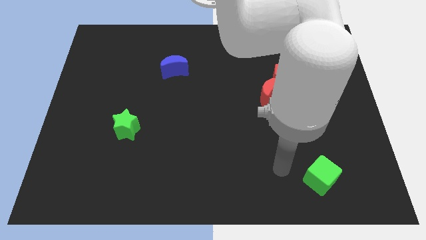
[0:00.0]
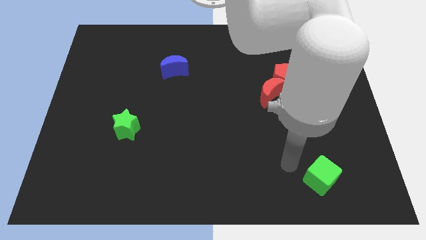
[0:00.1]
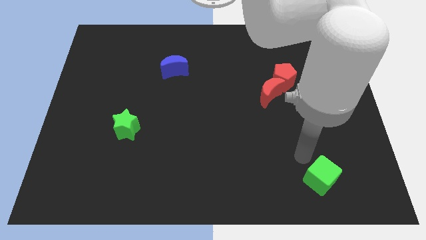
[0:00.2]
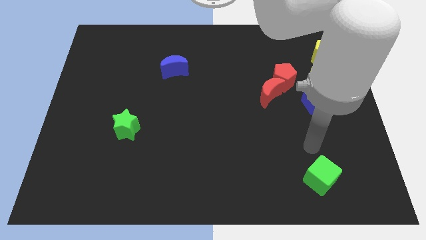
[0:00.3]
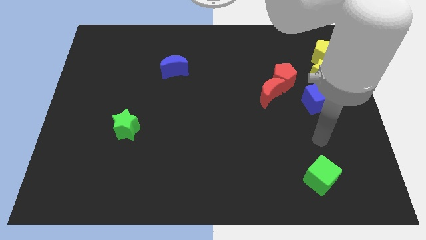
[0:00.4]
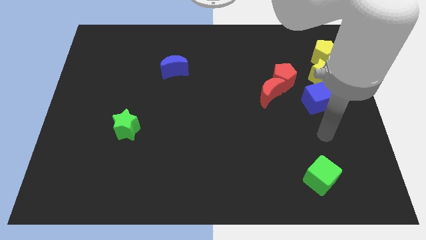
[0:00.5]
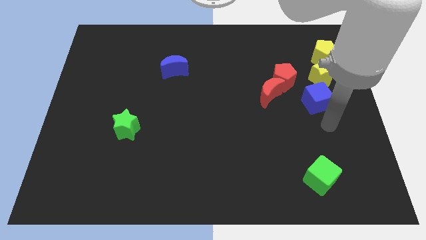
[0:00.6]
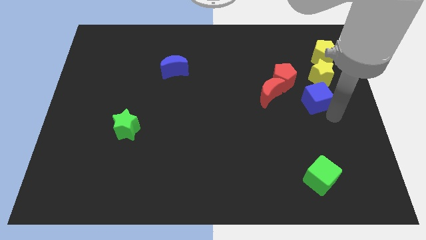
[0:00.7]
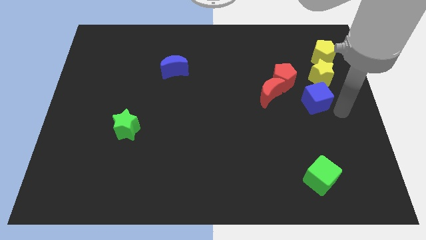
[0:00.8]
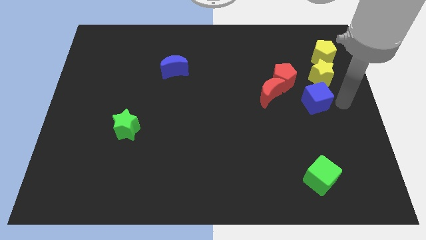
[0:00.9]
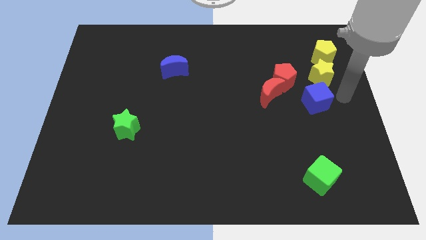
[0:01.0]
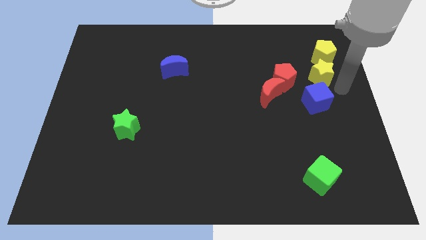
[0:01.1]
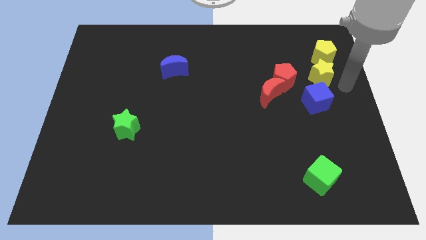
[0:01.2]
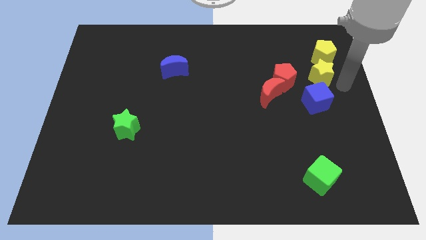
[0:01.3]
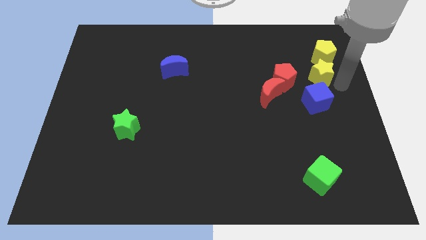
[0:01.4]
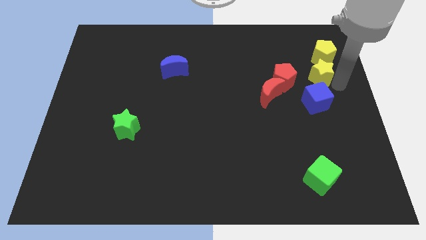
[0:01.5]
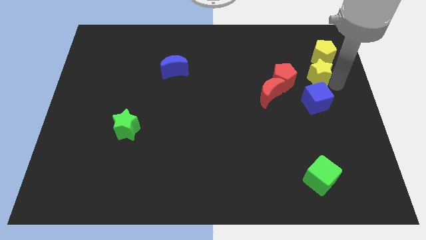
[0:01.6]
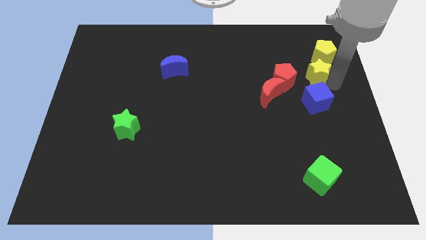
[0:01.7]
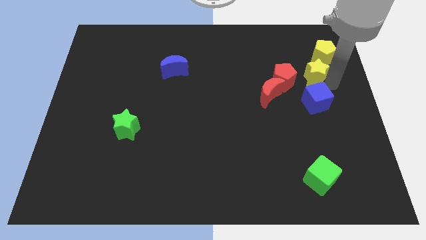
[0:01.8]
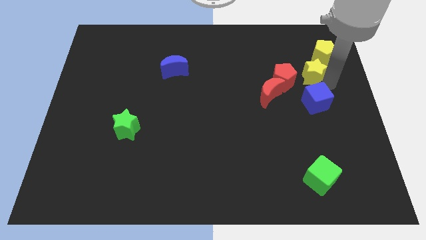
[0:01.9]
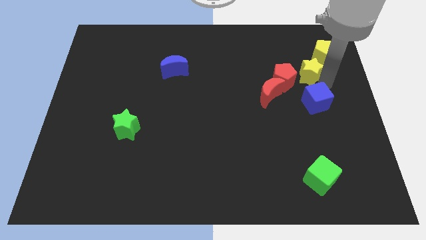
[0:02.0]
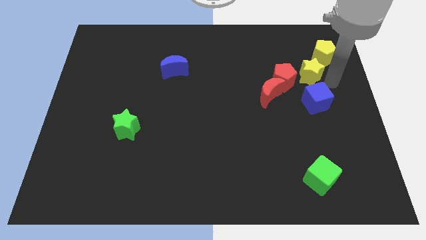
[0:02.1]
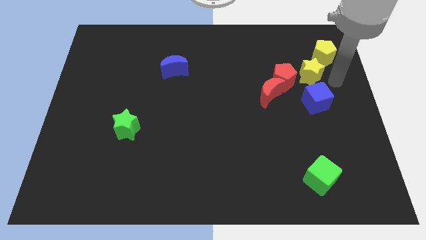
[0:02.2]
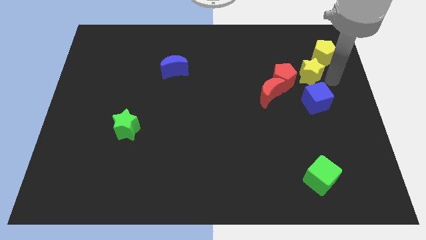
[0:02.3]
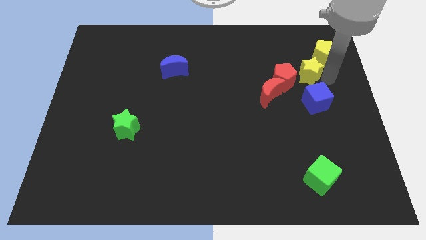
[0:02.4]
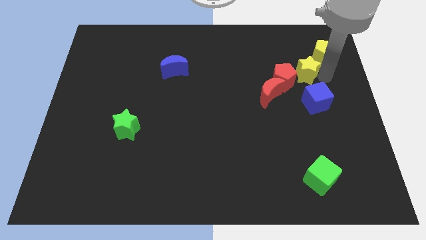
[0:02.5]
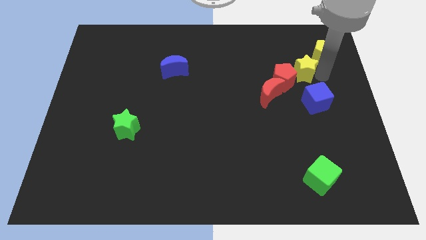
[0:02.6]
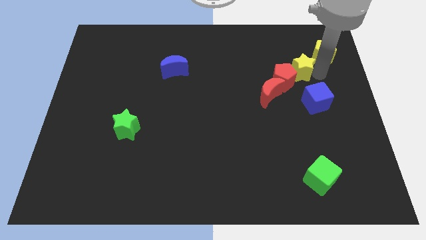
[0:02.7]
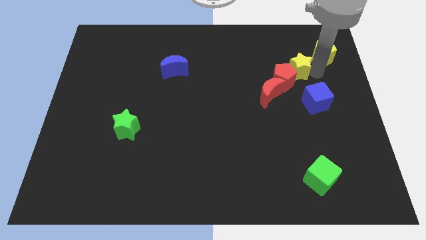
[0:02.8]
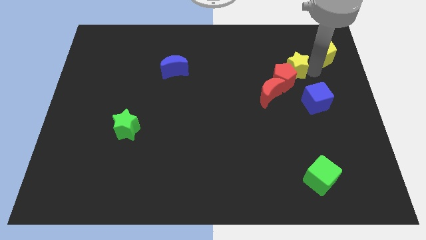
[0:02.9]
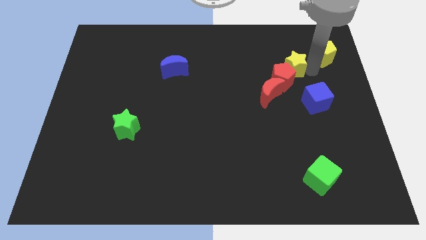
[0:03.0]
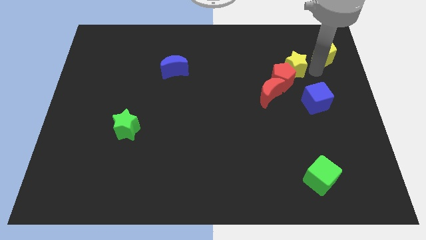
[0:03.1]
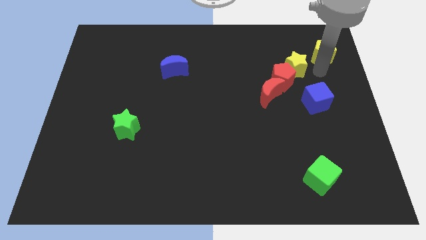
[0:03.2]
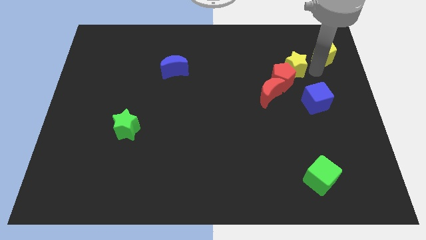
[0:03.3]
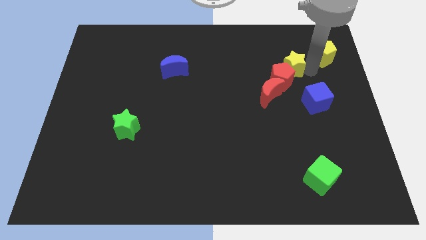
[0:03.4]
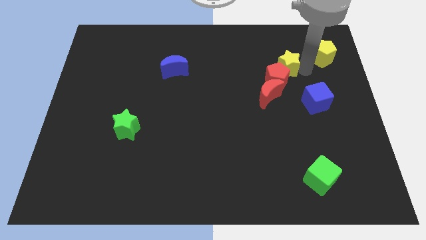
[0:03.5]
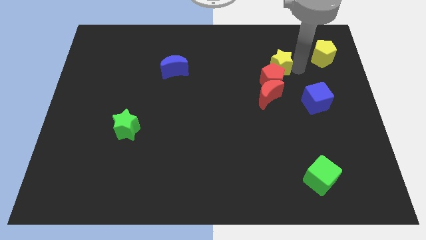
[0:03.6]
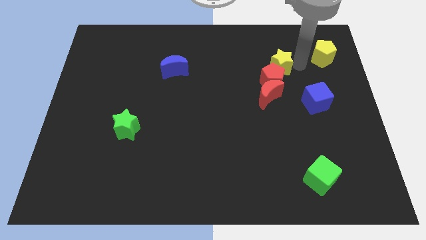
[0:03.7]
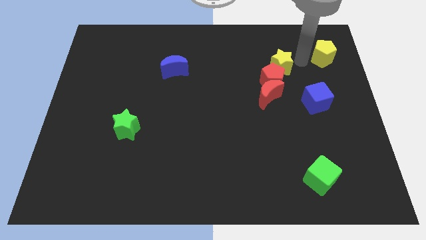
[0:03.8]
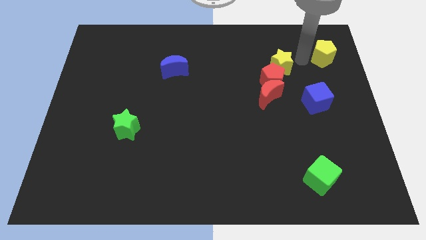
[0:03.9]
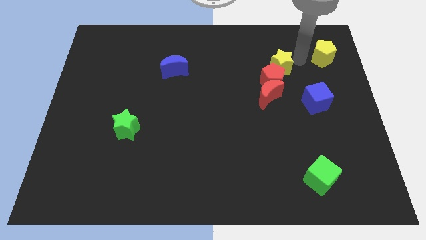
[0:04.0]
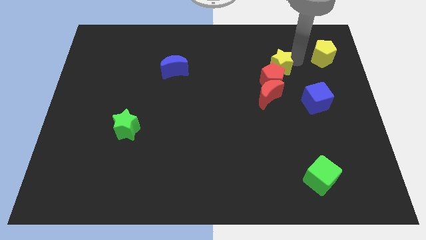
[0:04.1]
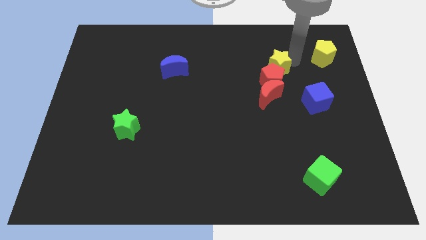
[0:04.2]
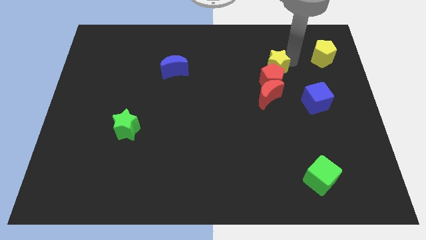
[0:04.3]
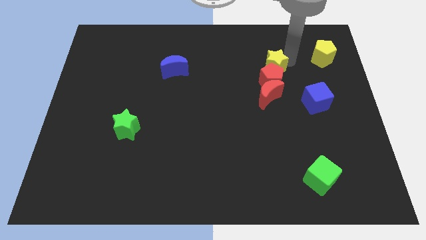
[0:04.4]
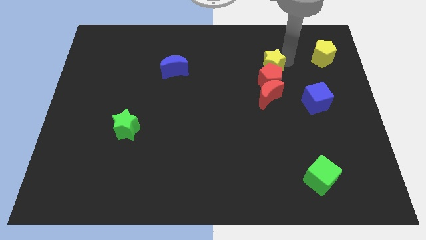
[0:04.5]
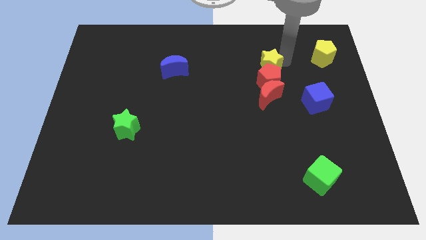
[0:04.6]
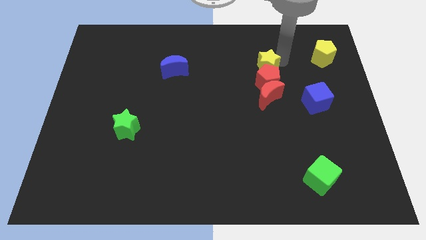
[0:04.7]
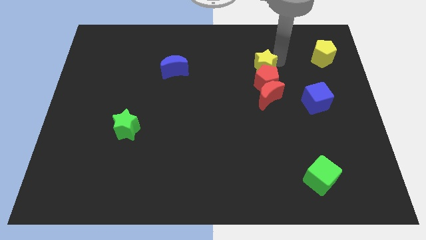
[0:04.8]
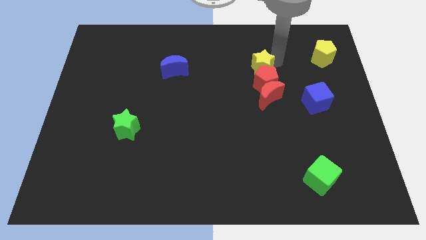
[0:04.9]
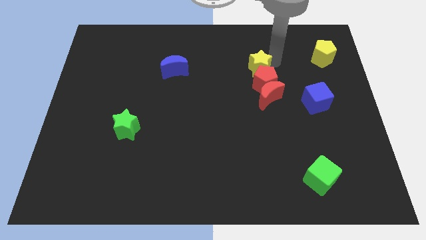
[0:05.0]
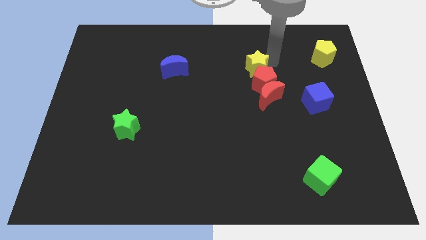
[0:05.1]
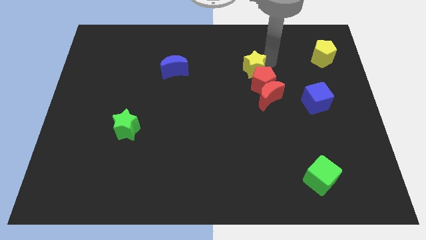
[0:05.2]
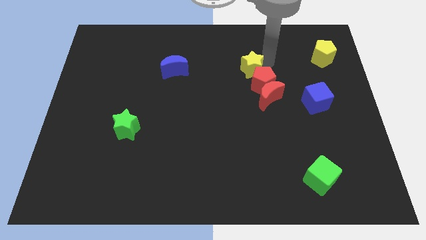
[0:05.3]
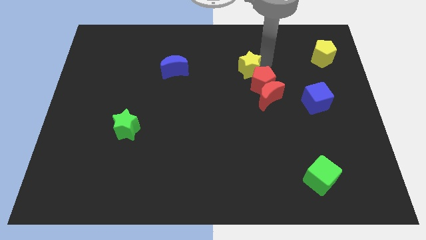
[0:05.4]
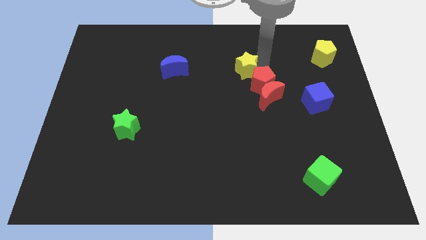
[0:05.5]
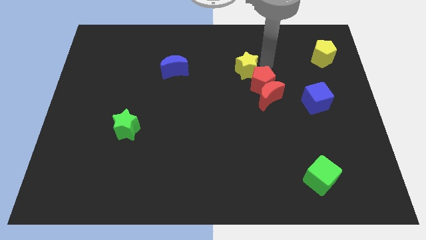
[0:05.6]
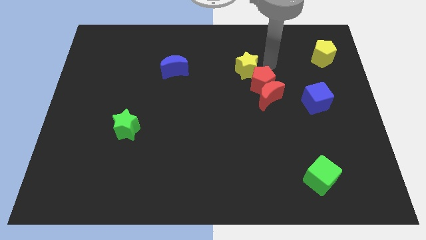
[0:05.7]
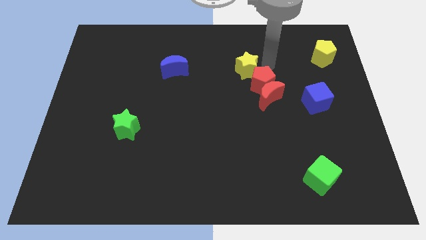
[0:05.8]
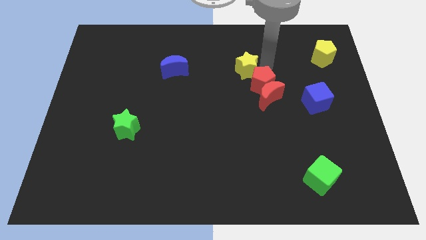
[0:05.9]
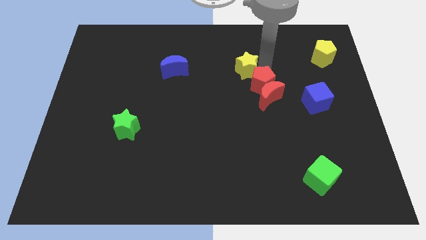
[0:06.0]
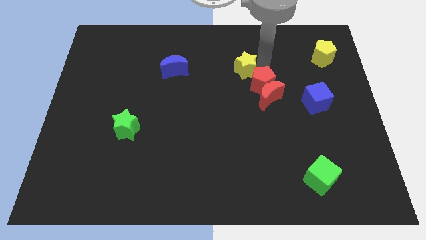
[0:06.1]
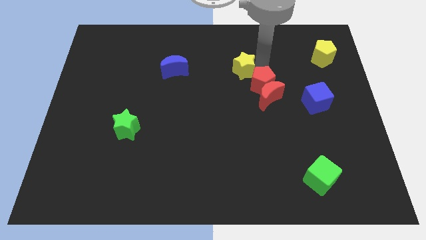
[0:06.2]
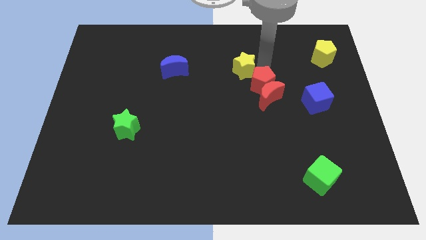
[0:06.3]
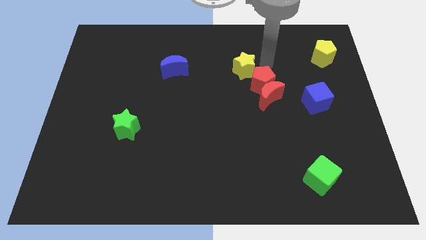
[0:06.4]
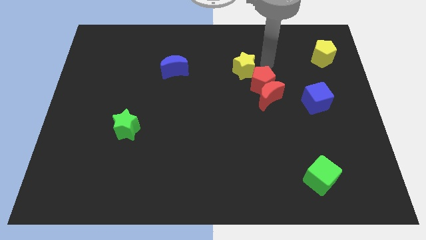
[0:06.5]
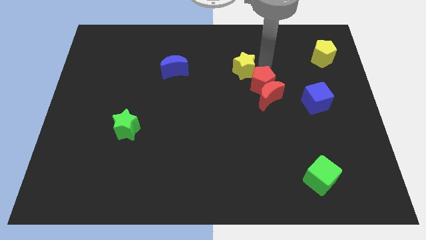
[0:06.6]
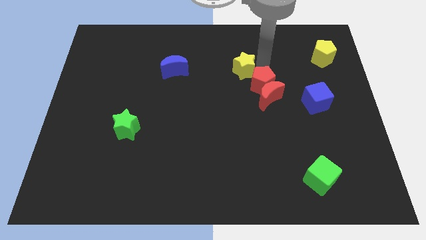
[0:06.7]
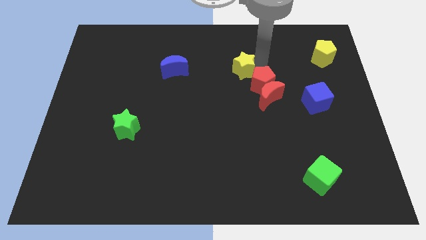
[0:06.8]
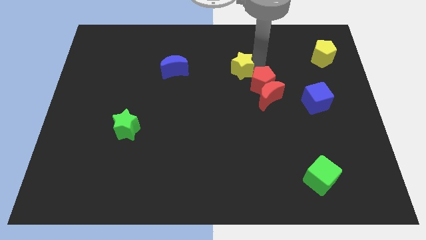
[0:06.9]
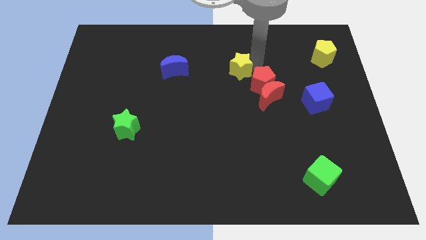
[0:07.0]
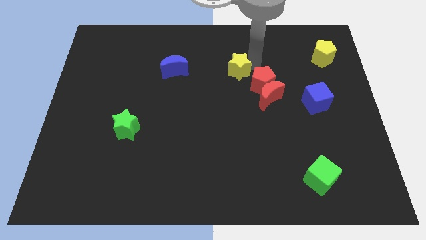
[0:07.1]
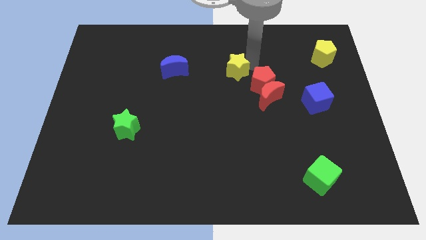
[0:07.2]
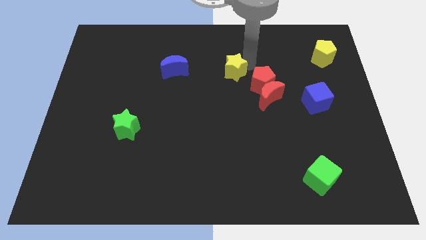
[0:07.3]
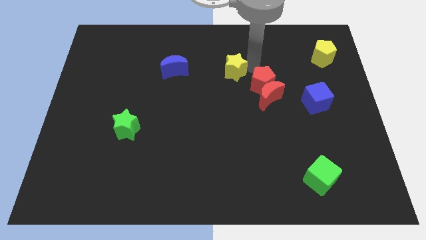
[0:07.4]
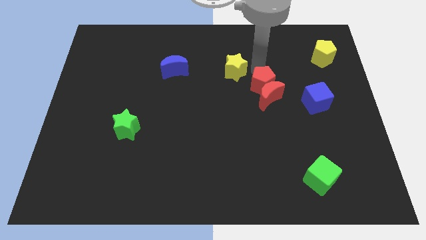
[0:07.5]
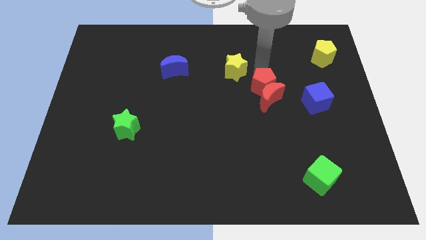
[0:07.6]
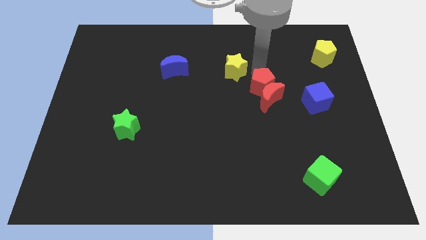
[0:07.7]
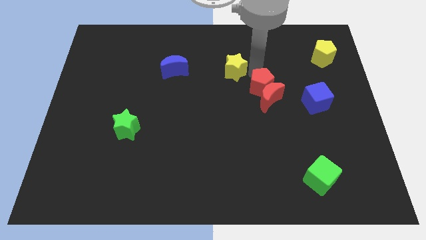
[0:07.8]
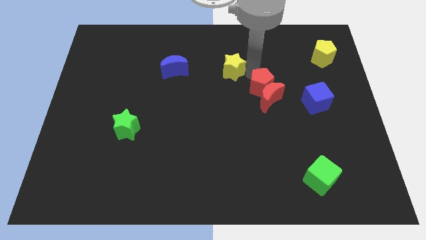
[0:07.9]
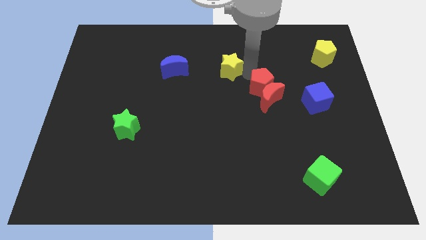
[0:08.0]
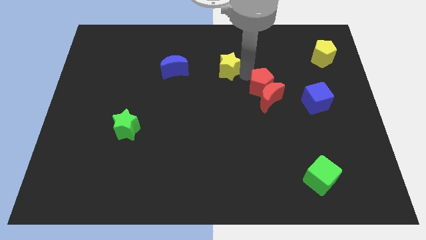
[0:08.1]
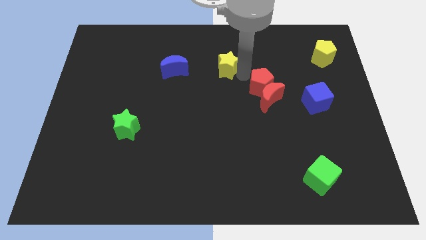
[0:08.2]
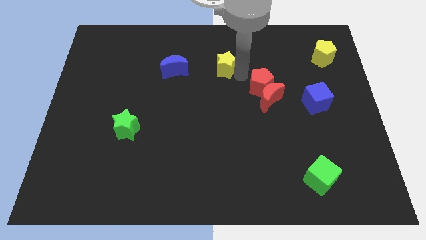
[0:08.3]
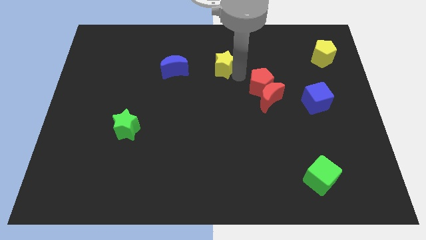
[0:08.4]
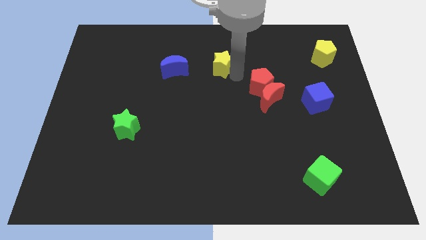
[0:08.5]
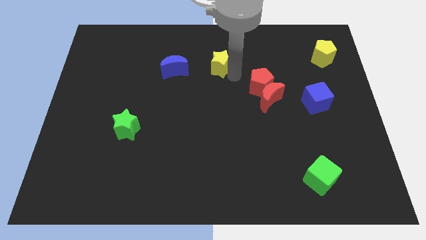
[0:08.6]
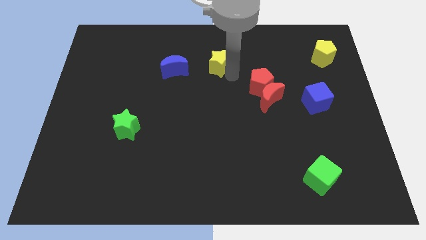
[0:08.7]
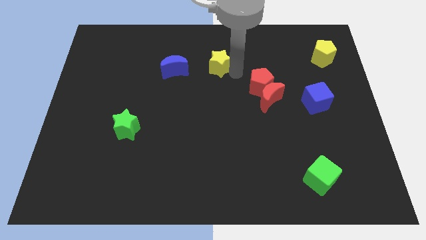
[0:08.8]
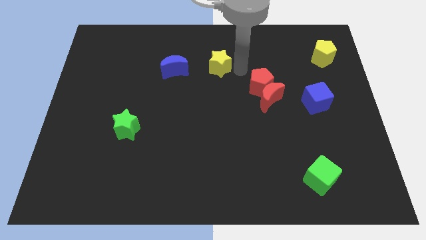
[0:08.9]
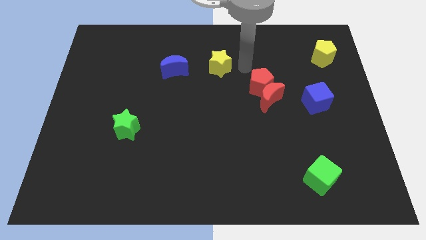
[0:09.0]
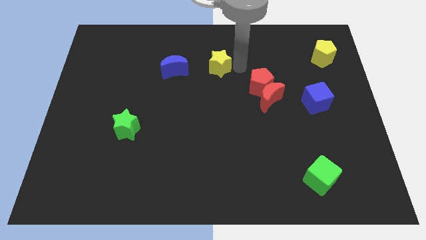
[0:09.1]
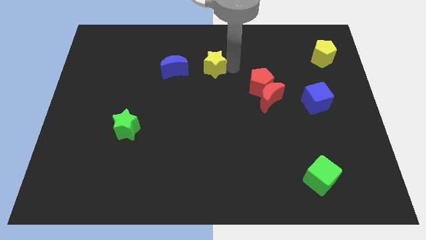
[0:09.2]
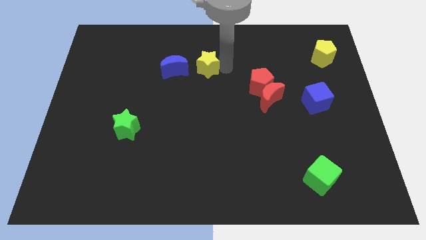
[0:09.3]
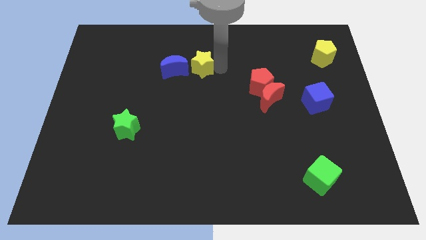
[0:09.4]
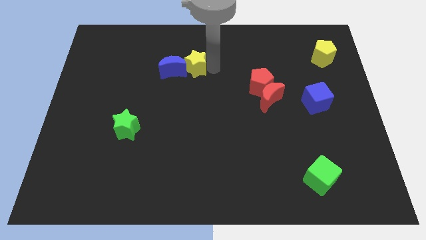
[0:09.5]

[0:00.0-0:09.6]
slide the yellow star next to the blue moon
